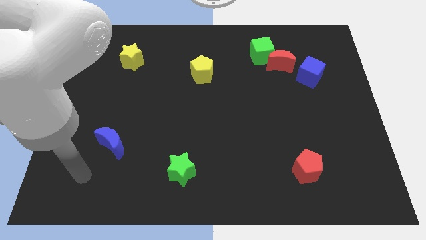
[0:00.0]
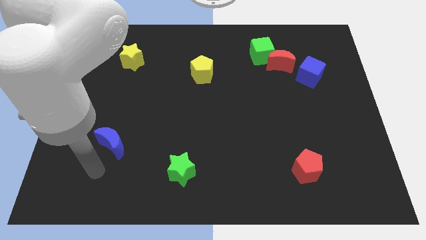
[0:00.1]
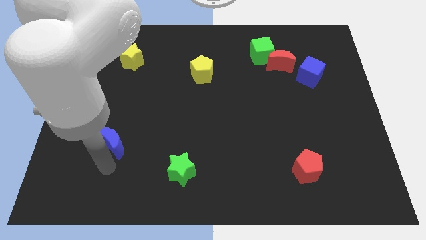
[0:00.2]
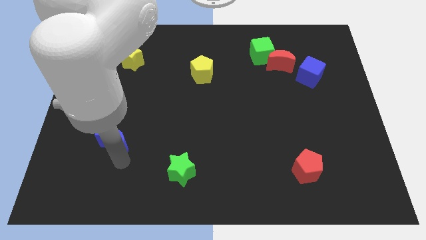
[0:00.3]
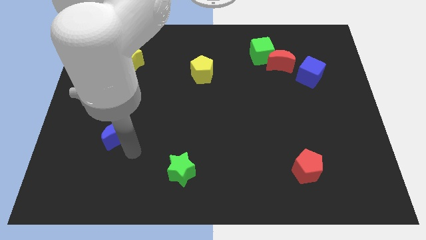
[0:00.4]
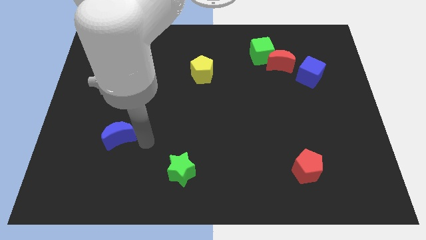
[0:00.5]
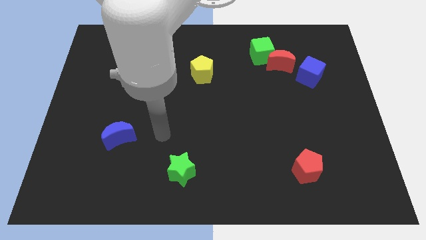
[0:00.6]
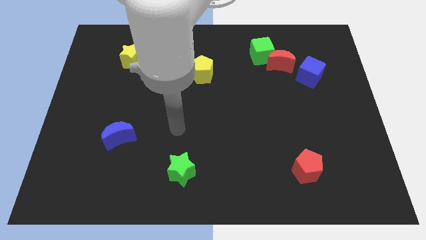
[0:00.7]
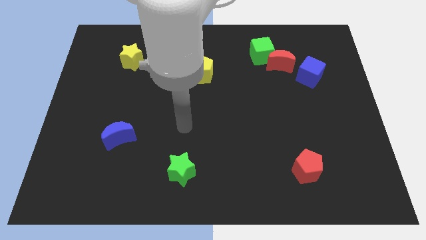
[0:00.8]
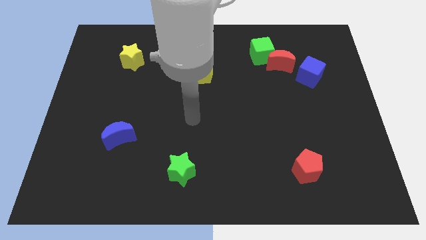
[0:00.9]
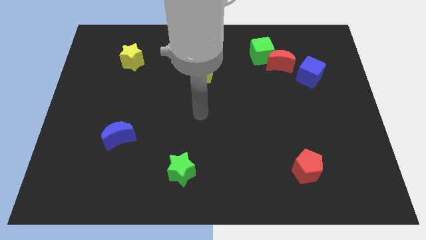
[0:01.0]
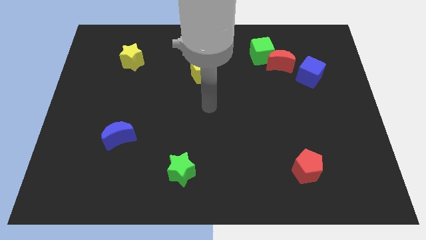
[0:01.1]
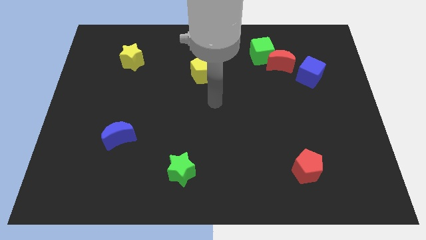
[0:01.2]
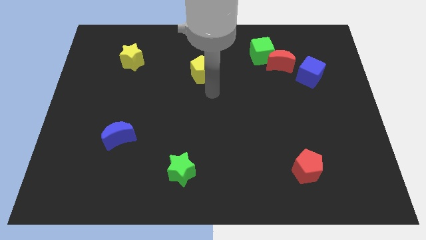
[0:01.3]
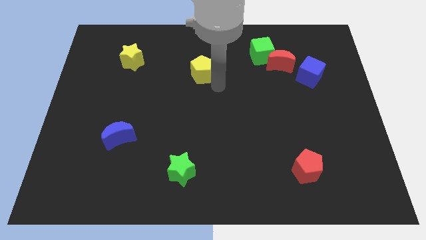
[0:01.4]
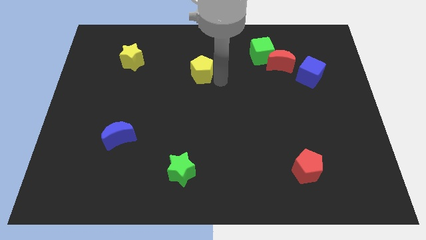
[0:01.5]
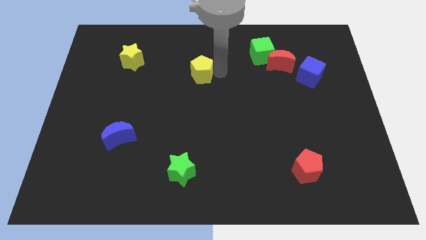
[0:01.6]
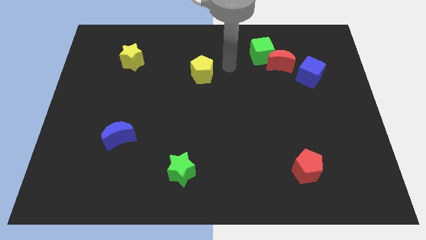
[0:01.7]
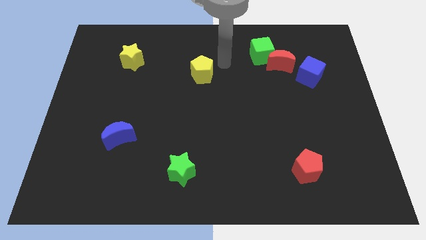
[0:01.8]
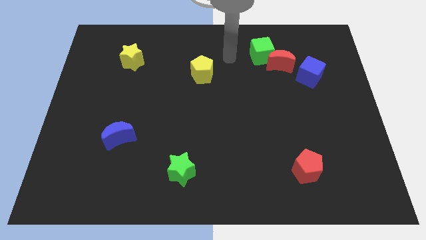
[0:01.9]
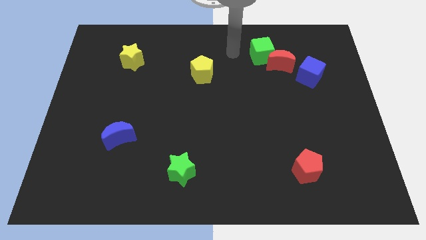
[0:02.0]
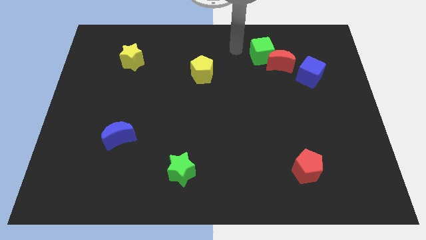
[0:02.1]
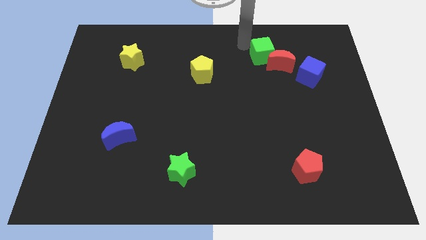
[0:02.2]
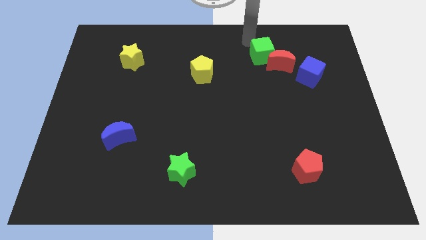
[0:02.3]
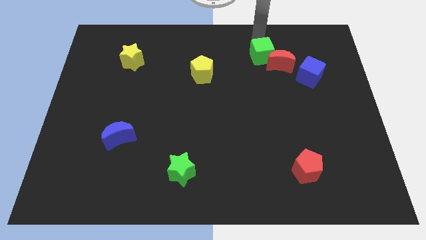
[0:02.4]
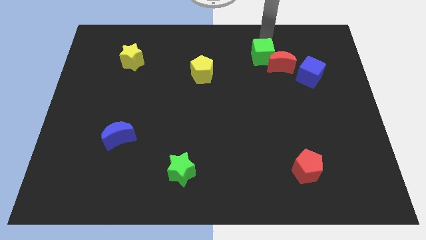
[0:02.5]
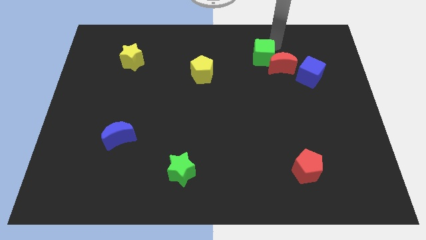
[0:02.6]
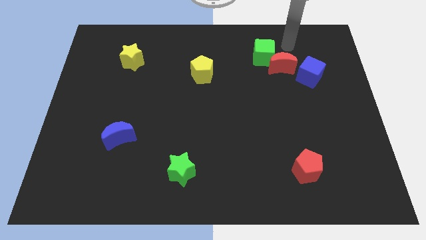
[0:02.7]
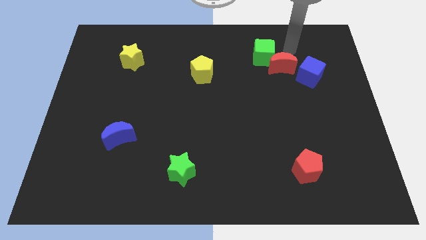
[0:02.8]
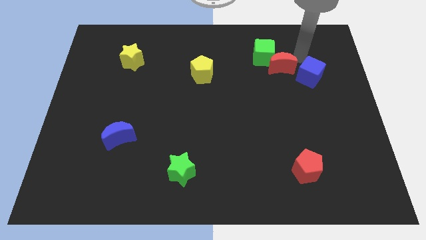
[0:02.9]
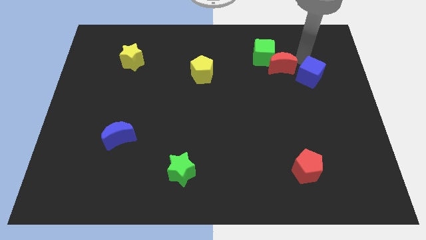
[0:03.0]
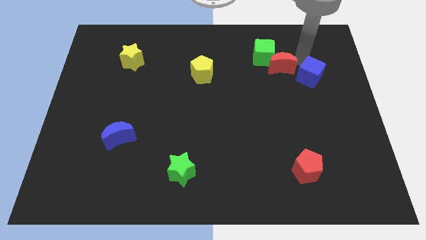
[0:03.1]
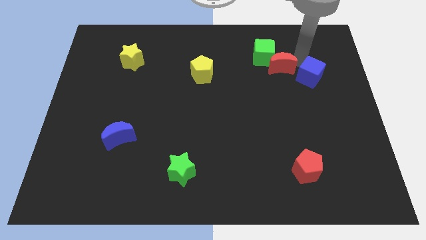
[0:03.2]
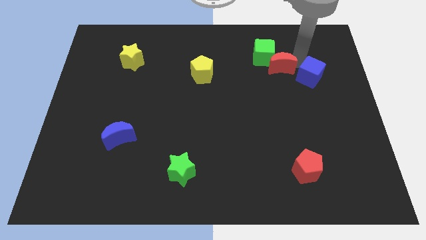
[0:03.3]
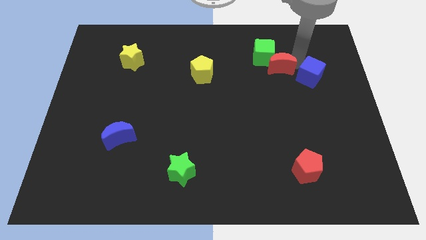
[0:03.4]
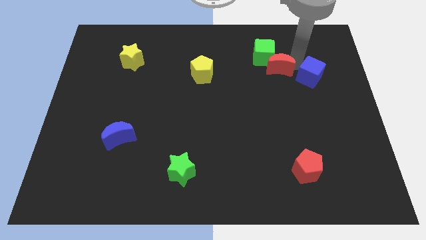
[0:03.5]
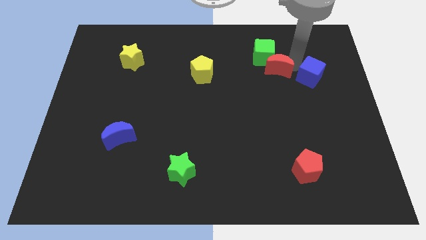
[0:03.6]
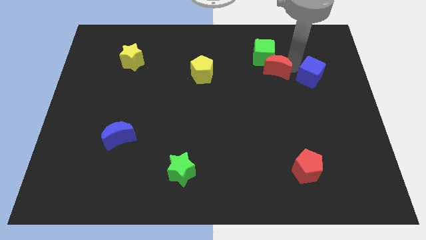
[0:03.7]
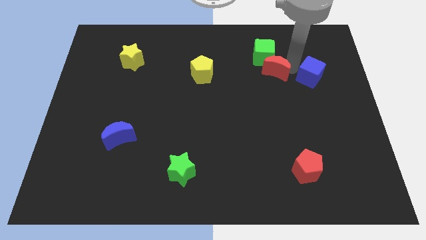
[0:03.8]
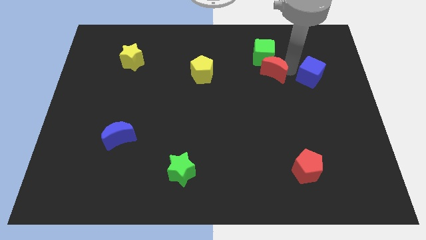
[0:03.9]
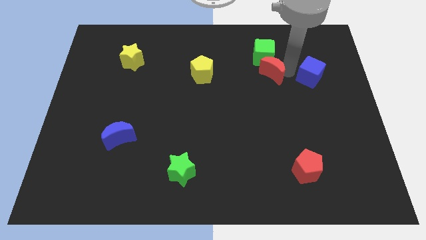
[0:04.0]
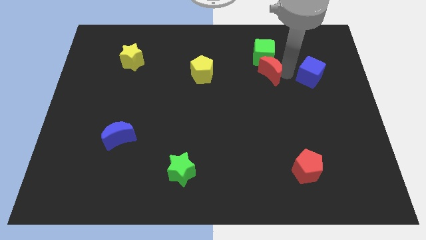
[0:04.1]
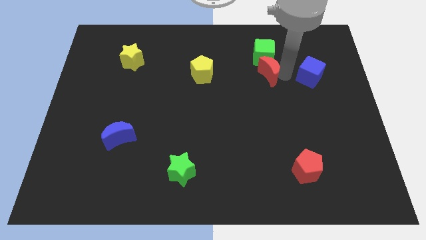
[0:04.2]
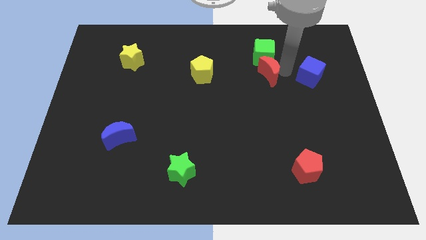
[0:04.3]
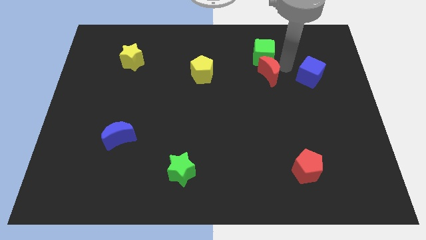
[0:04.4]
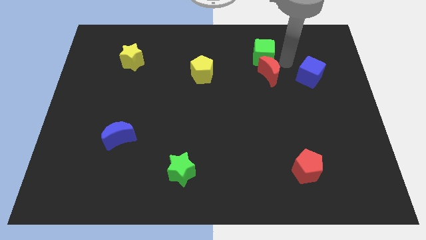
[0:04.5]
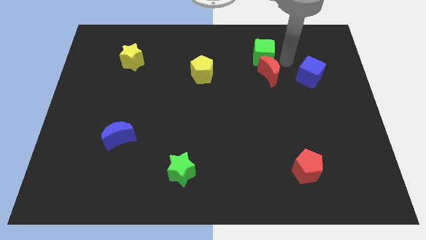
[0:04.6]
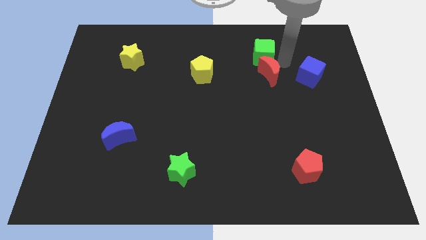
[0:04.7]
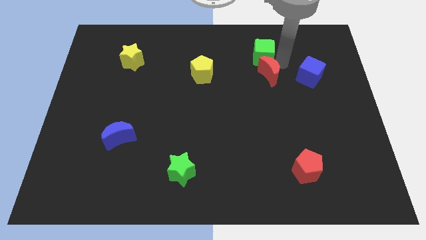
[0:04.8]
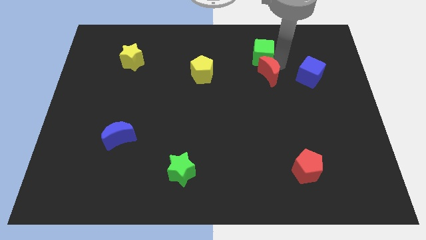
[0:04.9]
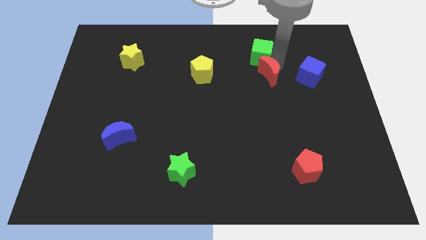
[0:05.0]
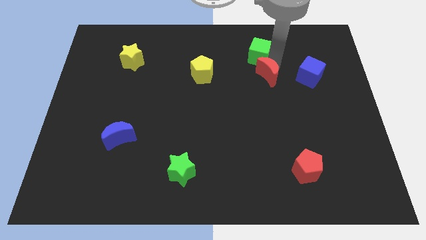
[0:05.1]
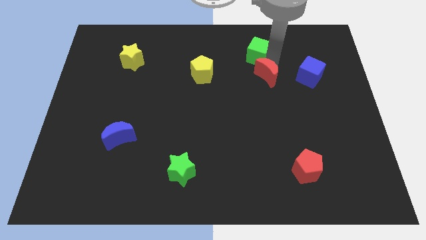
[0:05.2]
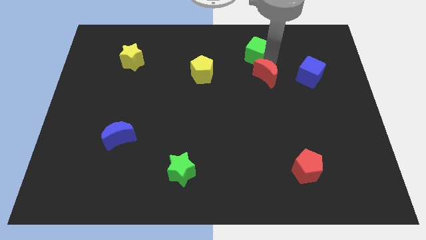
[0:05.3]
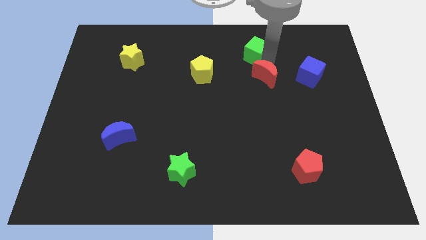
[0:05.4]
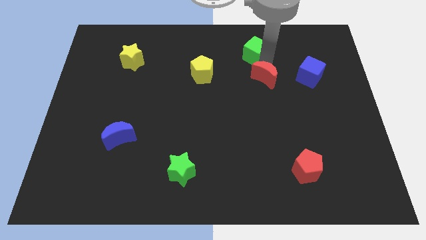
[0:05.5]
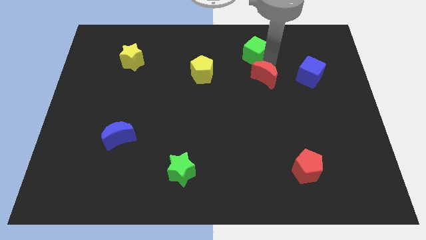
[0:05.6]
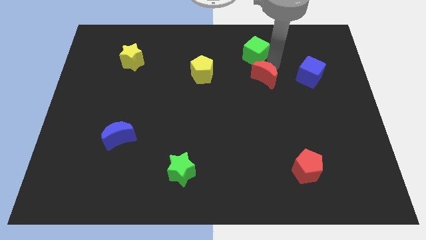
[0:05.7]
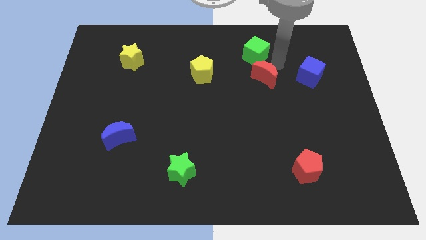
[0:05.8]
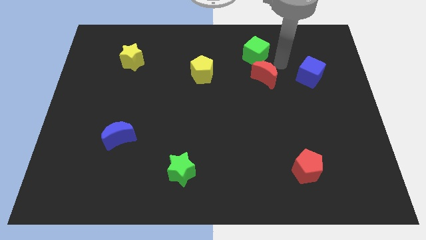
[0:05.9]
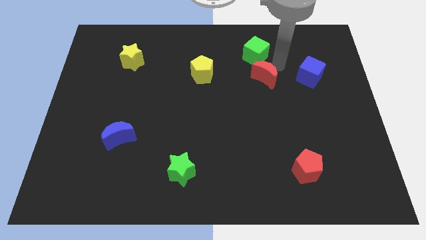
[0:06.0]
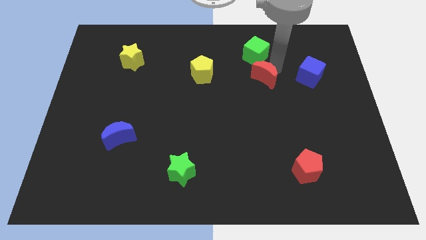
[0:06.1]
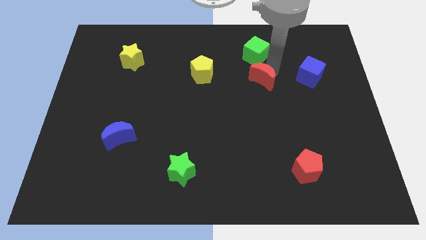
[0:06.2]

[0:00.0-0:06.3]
slide the red moon down and to the left a bit

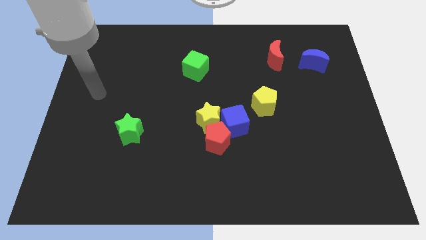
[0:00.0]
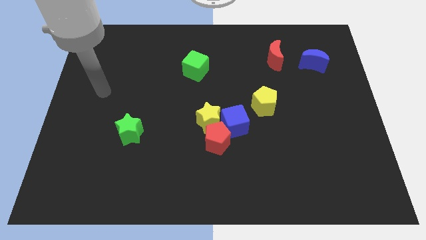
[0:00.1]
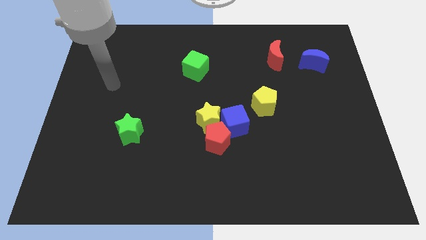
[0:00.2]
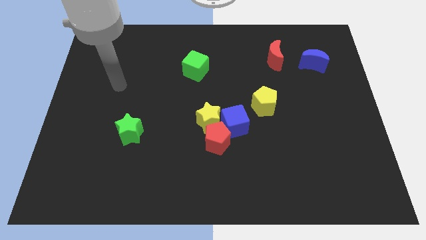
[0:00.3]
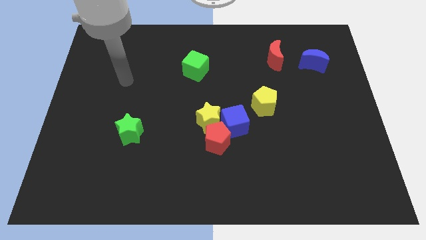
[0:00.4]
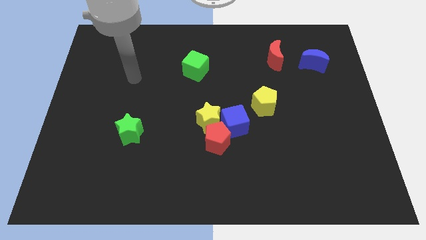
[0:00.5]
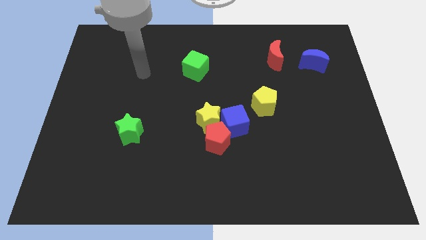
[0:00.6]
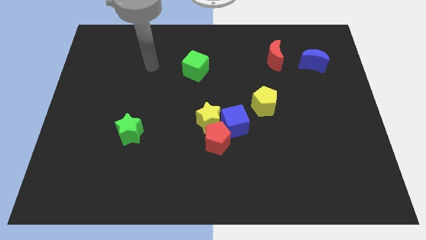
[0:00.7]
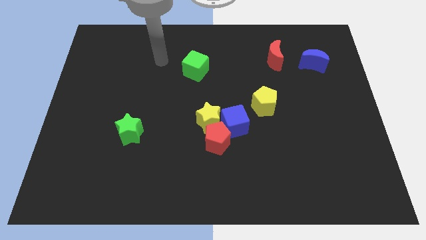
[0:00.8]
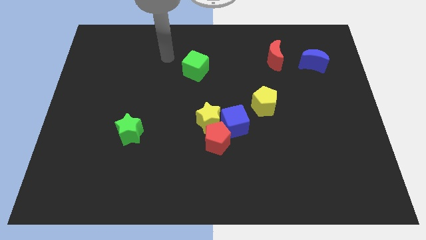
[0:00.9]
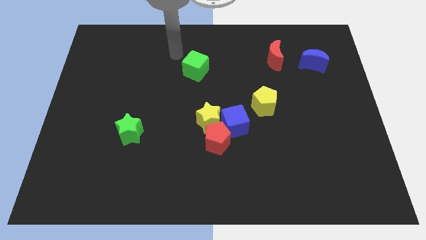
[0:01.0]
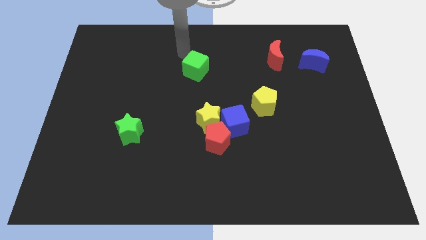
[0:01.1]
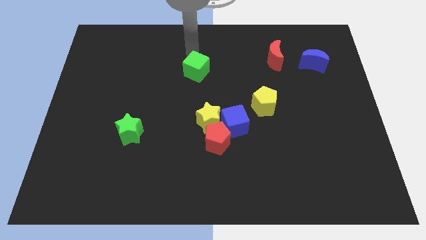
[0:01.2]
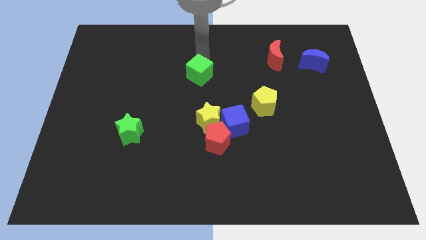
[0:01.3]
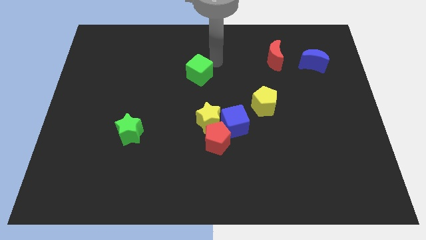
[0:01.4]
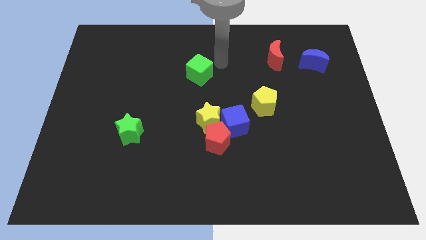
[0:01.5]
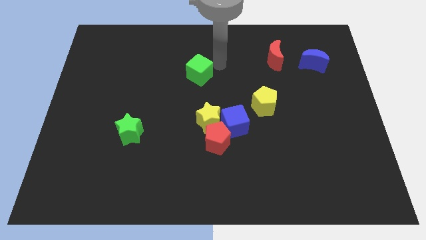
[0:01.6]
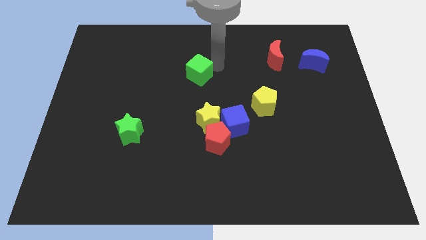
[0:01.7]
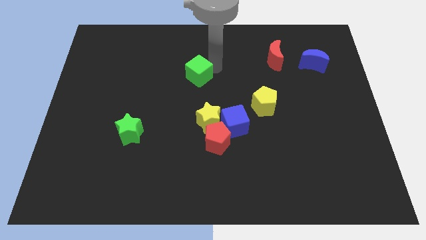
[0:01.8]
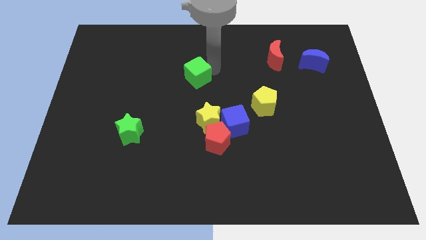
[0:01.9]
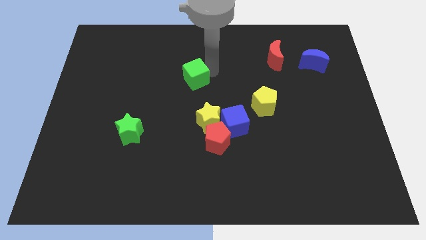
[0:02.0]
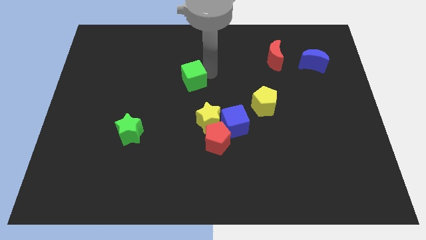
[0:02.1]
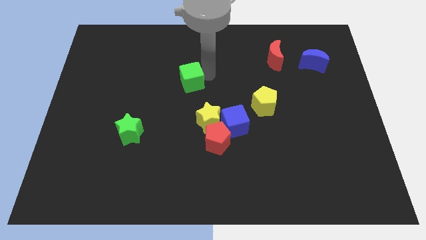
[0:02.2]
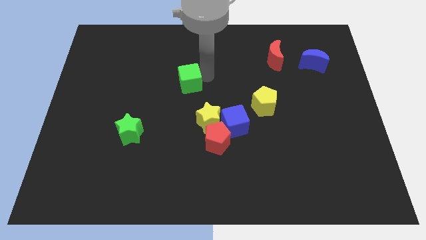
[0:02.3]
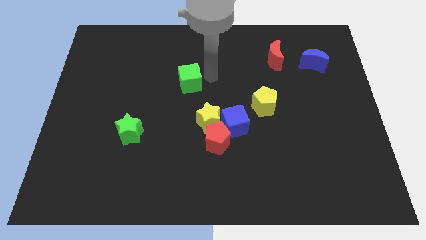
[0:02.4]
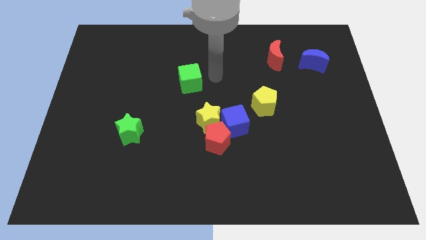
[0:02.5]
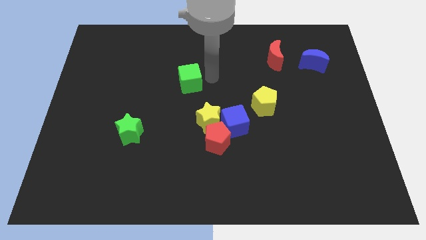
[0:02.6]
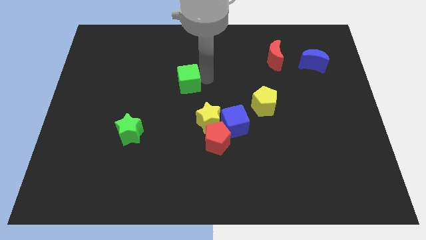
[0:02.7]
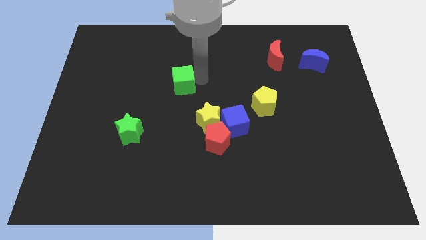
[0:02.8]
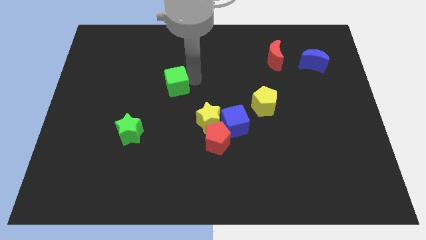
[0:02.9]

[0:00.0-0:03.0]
slightly move the green cube down and to the left diagonally
